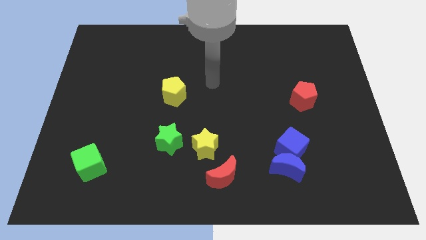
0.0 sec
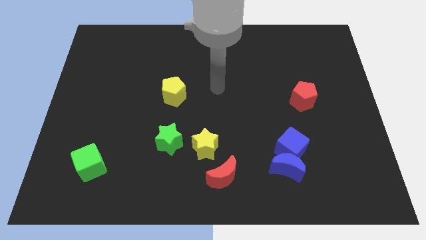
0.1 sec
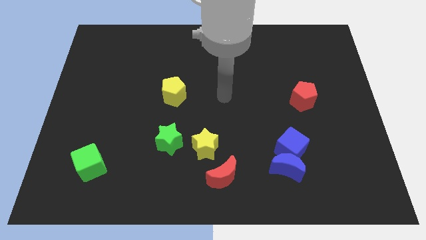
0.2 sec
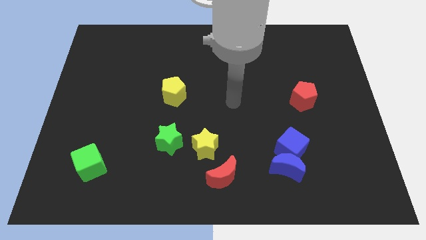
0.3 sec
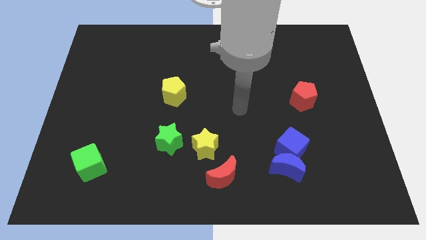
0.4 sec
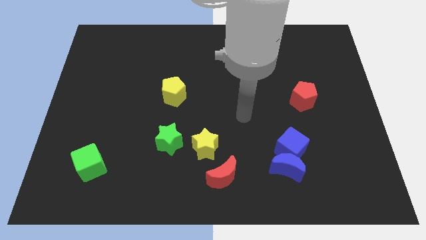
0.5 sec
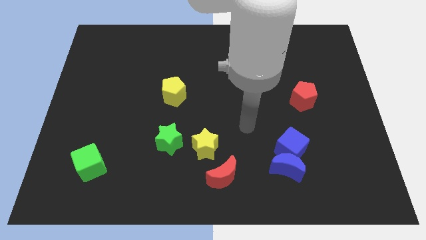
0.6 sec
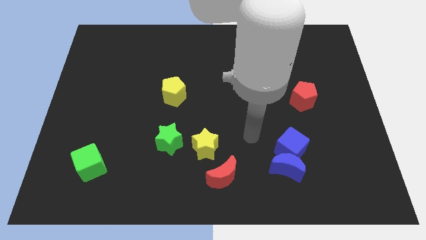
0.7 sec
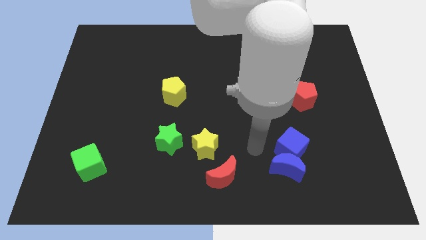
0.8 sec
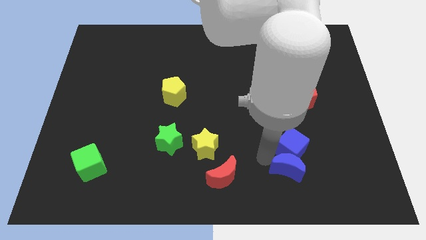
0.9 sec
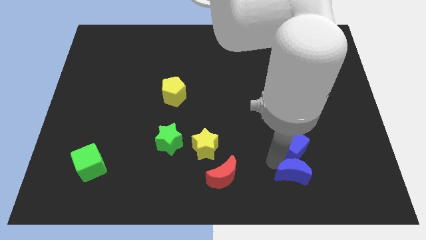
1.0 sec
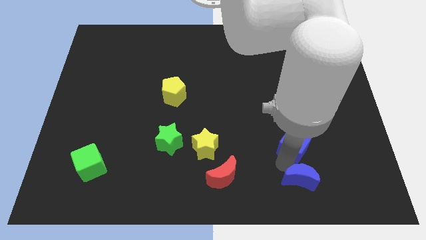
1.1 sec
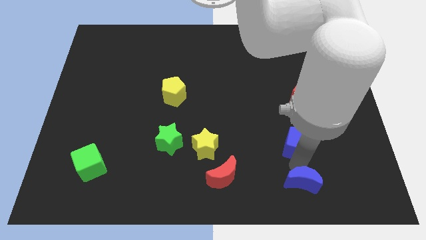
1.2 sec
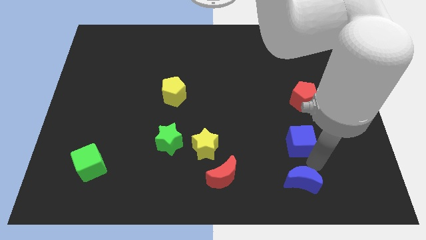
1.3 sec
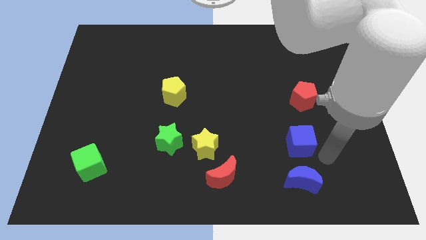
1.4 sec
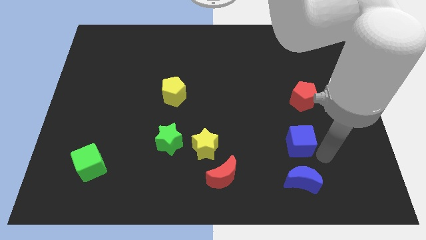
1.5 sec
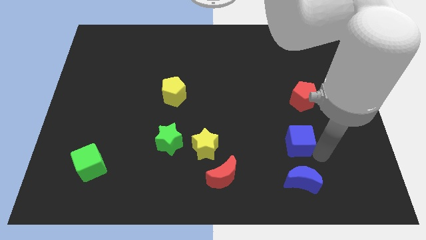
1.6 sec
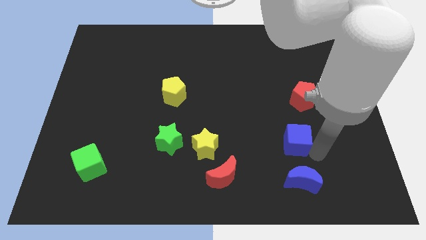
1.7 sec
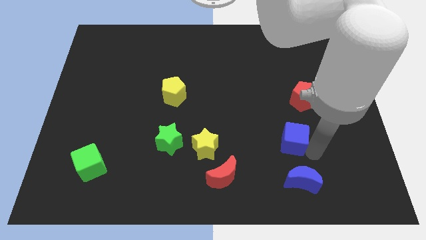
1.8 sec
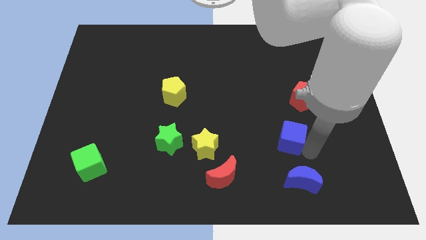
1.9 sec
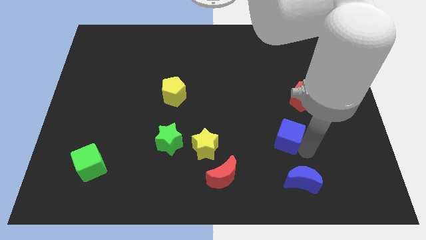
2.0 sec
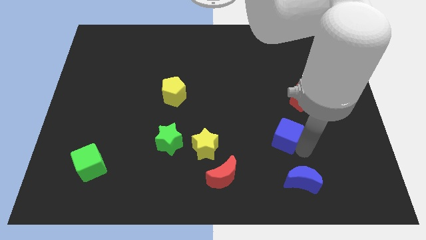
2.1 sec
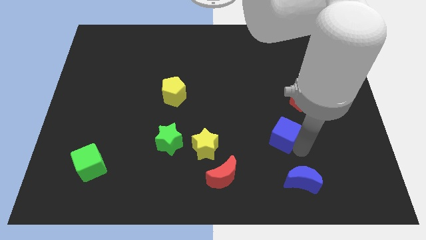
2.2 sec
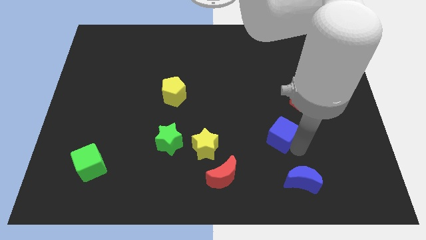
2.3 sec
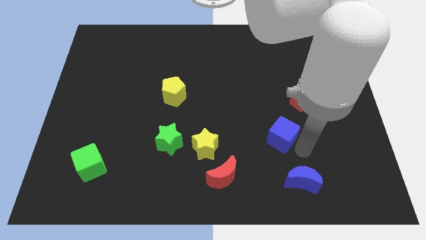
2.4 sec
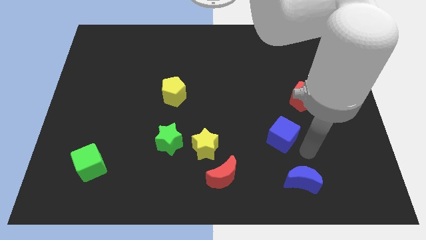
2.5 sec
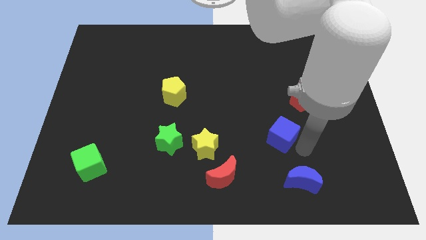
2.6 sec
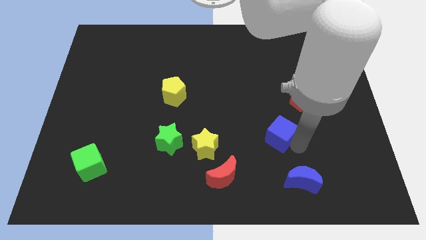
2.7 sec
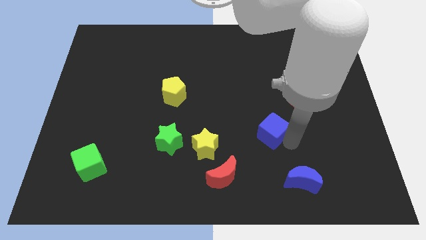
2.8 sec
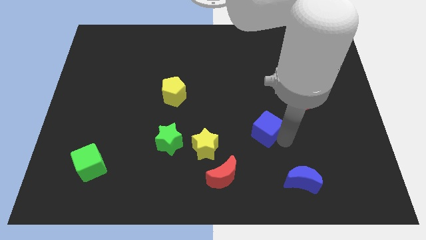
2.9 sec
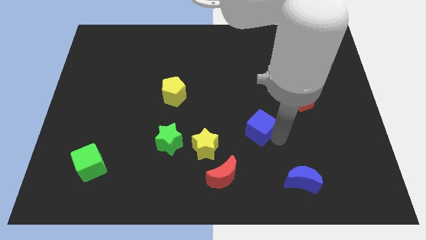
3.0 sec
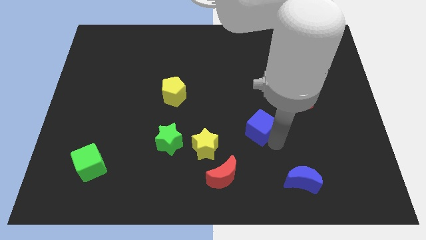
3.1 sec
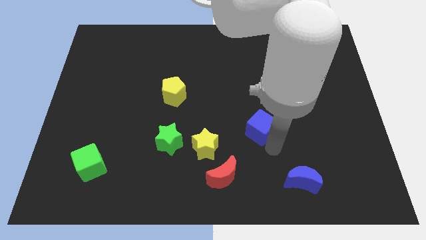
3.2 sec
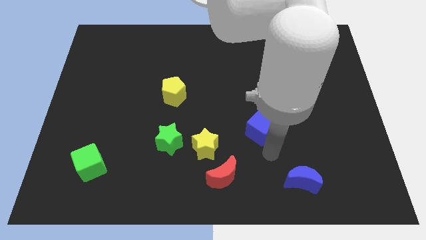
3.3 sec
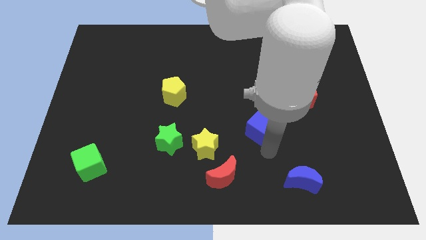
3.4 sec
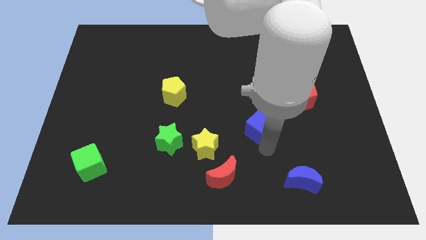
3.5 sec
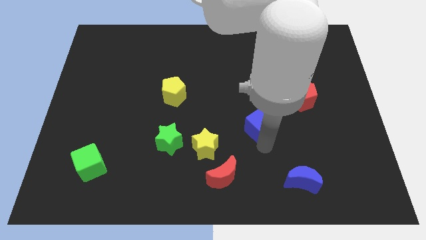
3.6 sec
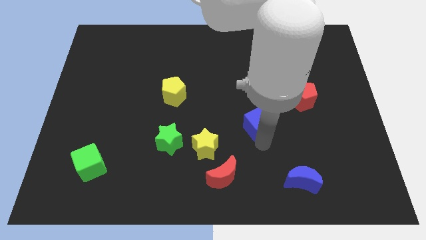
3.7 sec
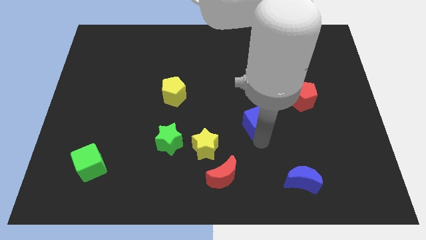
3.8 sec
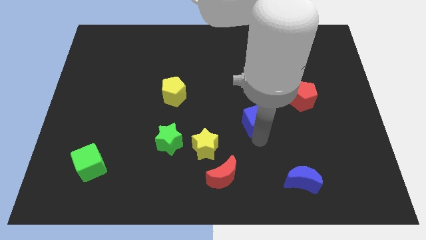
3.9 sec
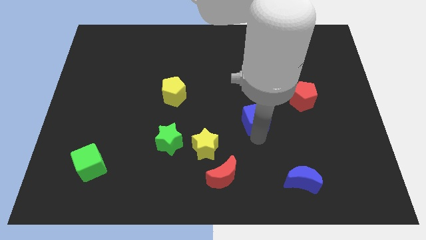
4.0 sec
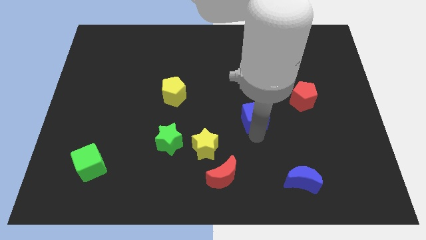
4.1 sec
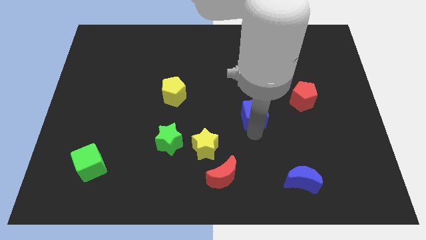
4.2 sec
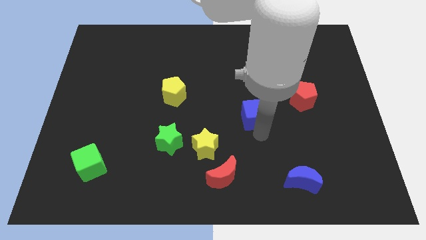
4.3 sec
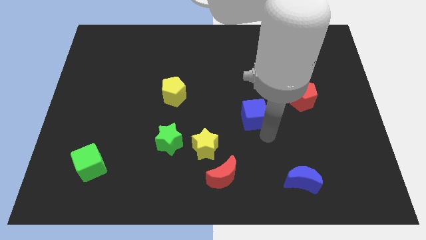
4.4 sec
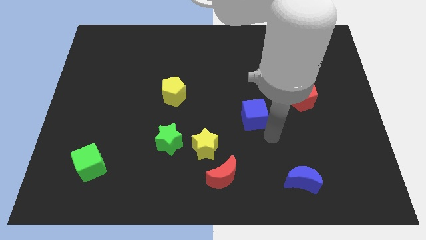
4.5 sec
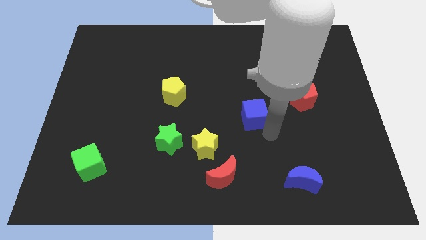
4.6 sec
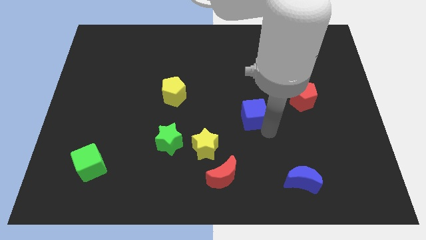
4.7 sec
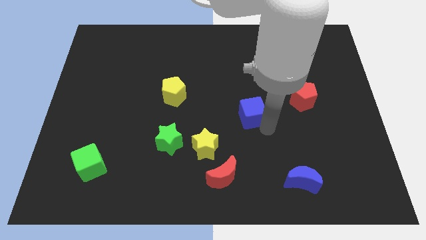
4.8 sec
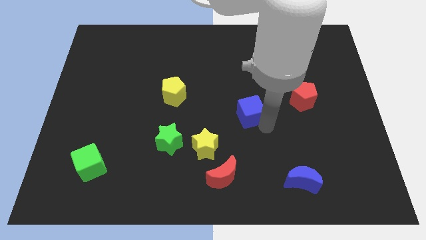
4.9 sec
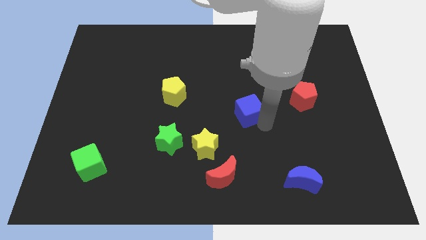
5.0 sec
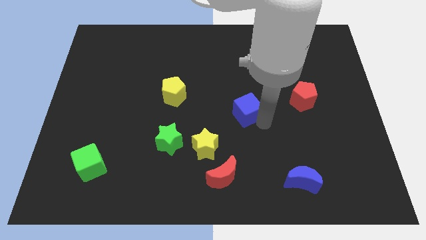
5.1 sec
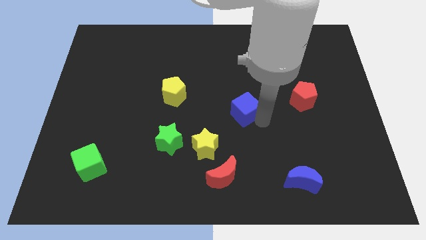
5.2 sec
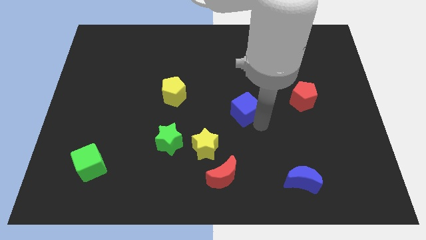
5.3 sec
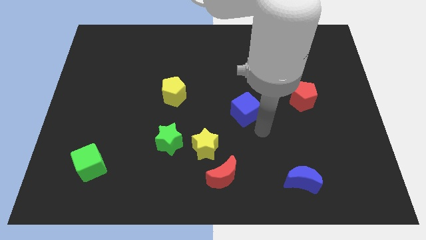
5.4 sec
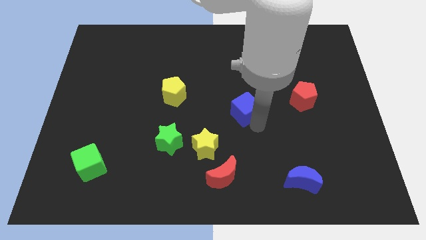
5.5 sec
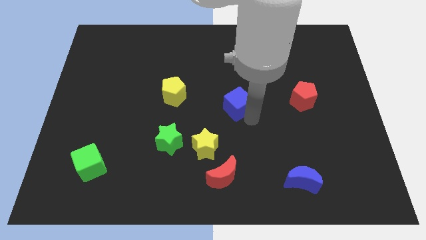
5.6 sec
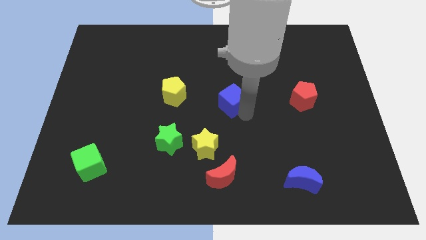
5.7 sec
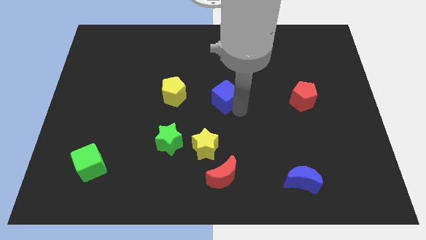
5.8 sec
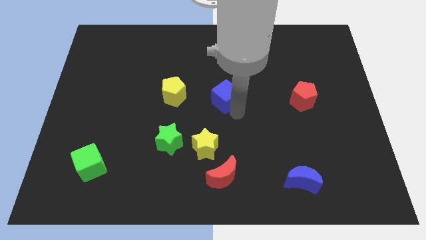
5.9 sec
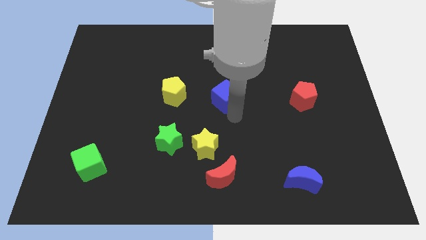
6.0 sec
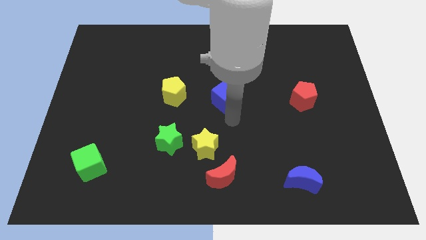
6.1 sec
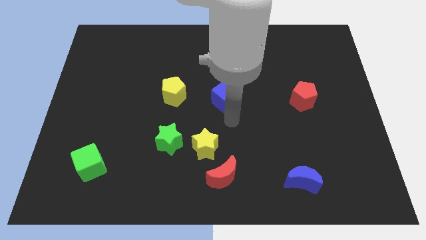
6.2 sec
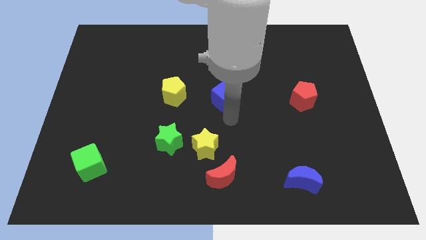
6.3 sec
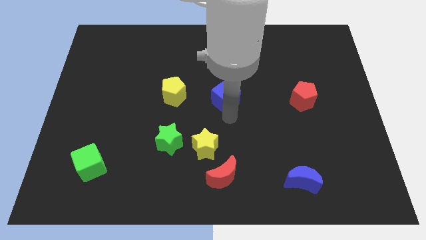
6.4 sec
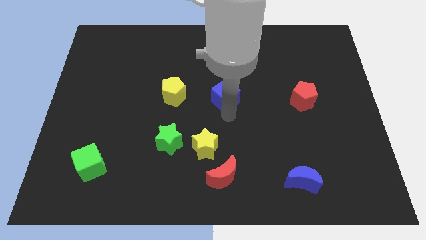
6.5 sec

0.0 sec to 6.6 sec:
move the blue cube diagonally upwards and to the left

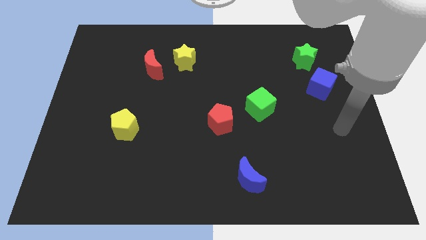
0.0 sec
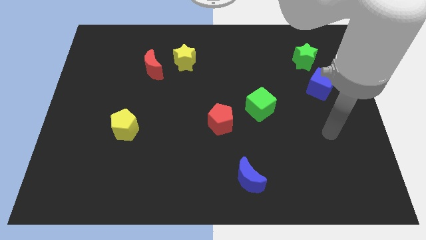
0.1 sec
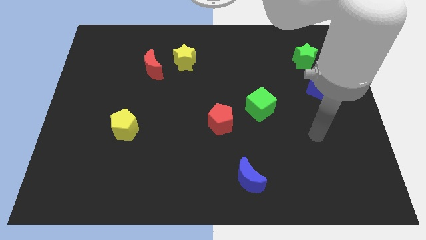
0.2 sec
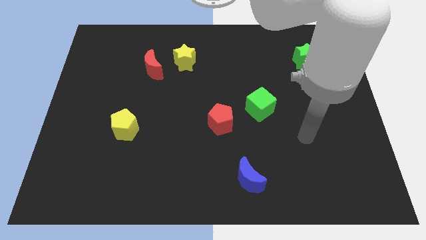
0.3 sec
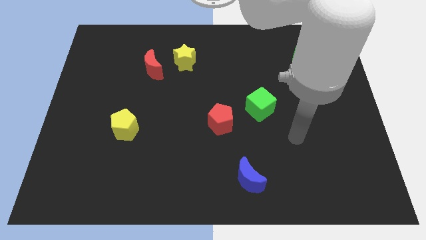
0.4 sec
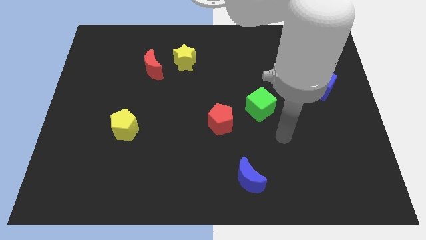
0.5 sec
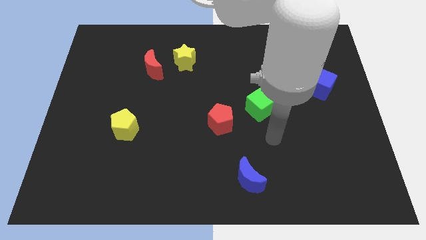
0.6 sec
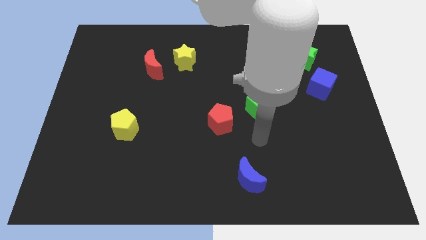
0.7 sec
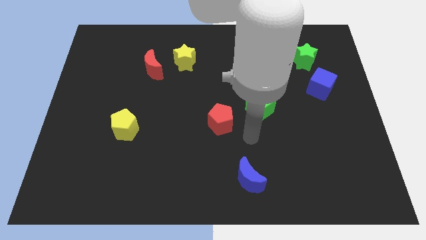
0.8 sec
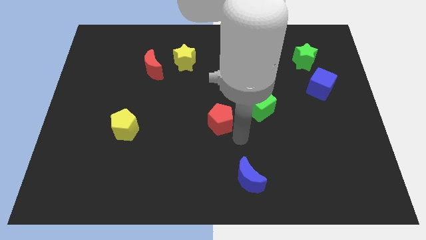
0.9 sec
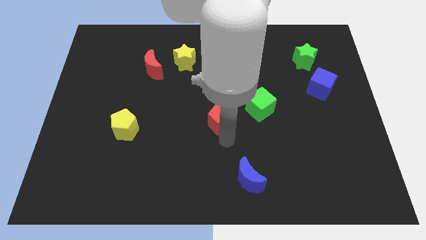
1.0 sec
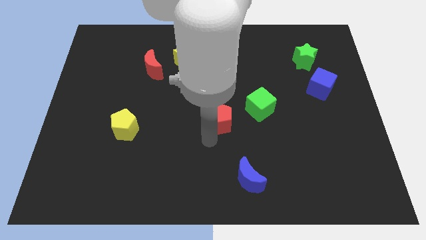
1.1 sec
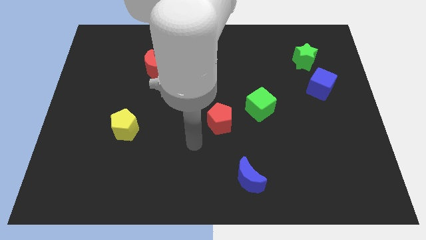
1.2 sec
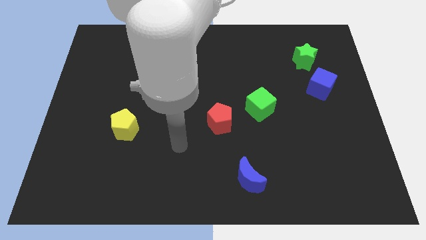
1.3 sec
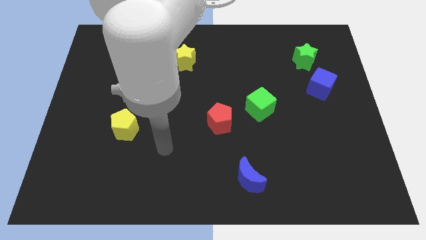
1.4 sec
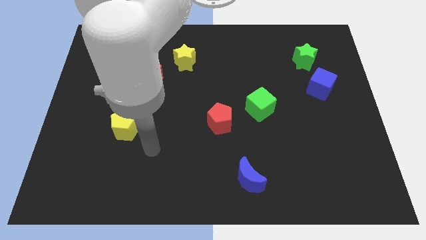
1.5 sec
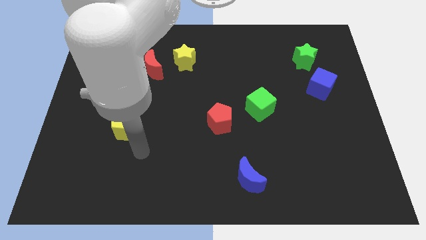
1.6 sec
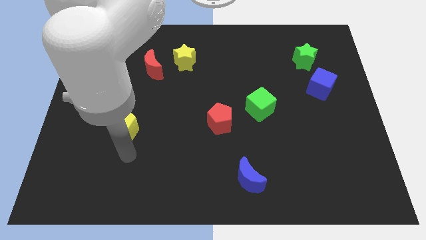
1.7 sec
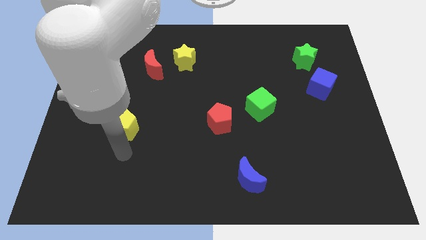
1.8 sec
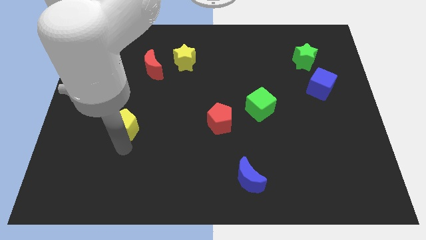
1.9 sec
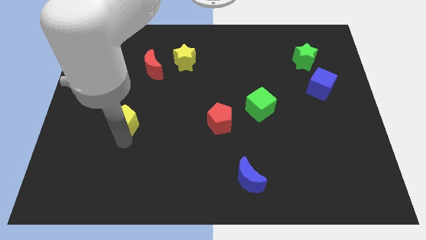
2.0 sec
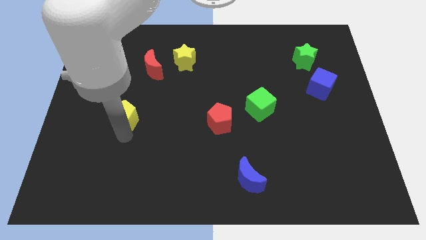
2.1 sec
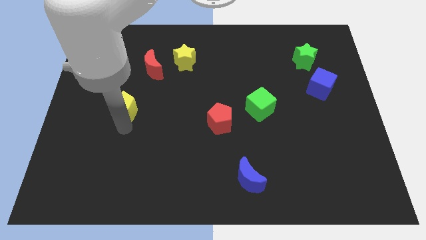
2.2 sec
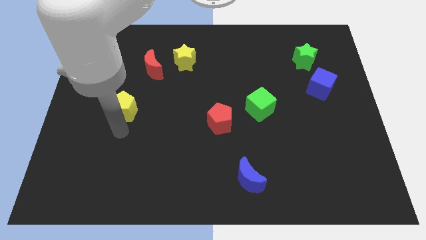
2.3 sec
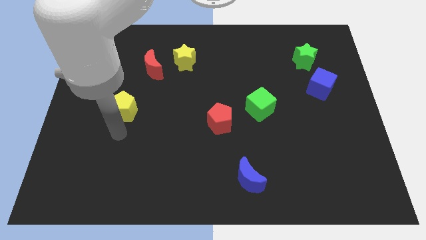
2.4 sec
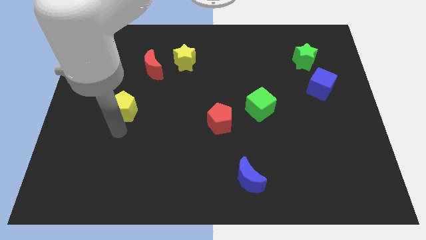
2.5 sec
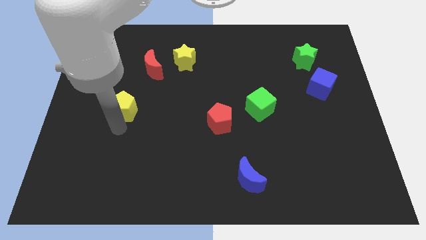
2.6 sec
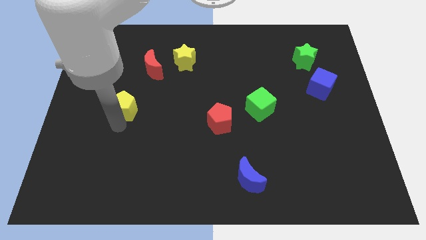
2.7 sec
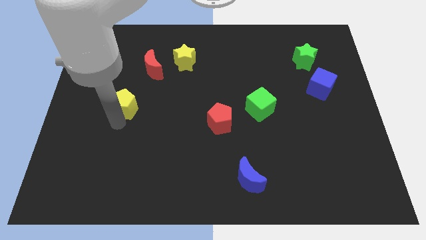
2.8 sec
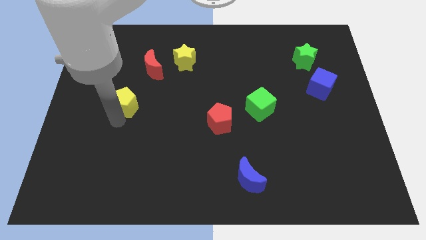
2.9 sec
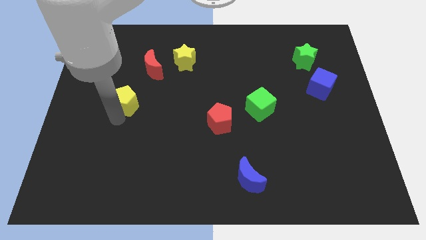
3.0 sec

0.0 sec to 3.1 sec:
slightly push the yellow pentagon up
